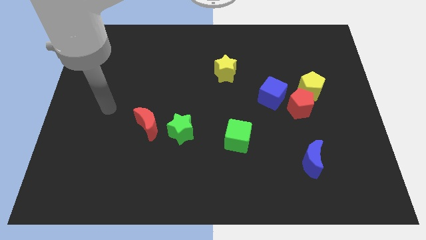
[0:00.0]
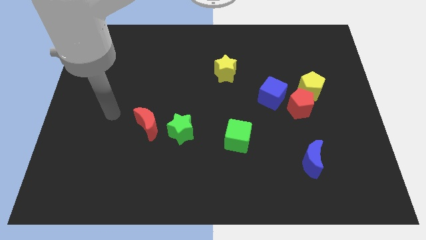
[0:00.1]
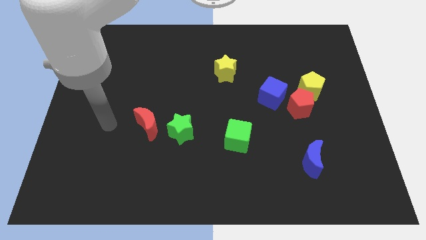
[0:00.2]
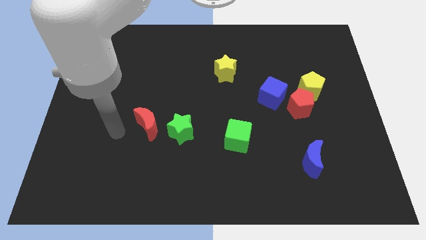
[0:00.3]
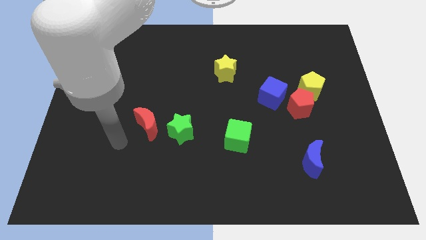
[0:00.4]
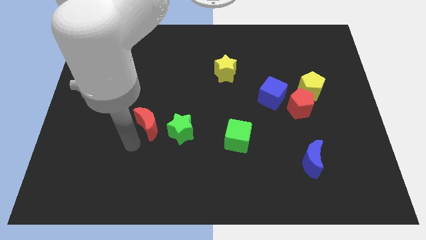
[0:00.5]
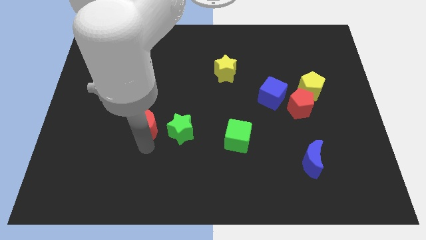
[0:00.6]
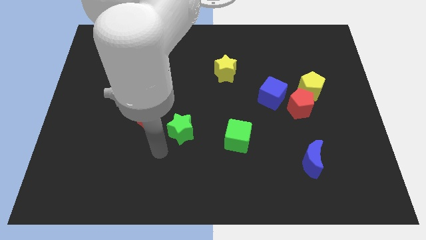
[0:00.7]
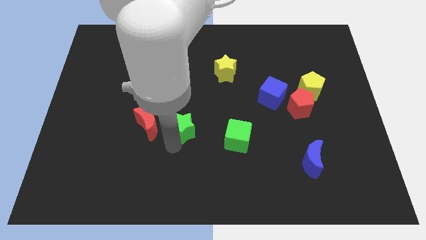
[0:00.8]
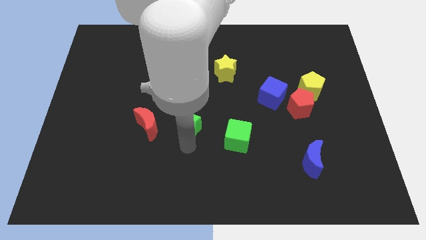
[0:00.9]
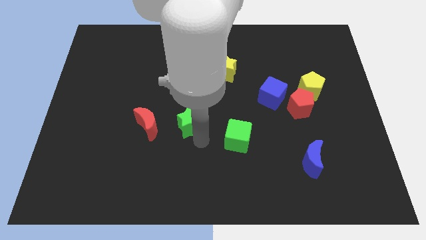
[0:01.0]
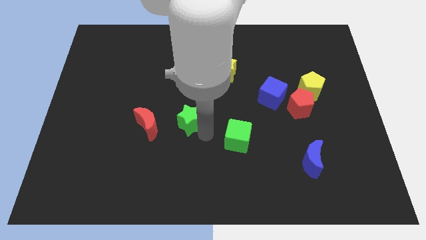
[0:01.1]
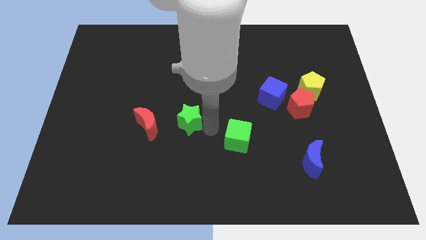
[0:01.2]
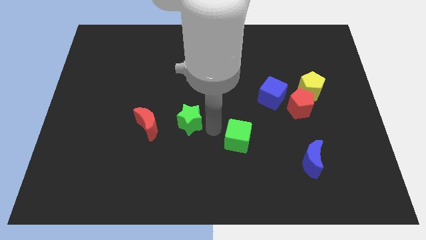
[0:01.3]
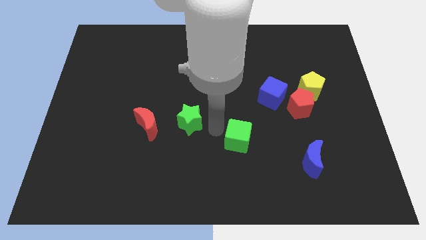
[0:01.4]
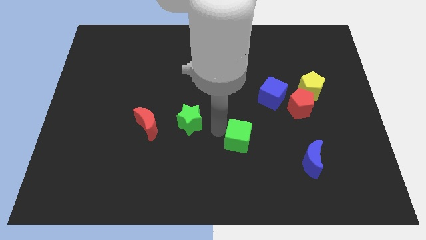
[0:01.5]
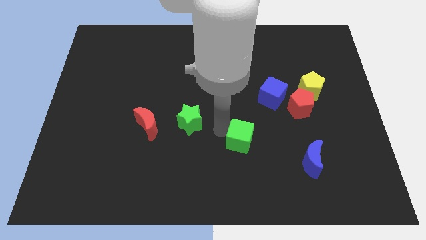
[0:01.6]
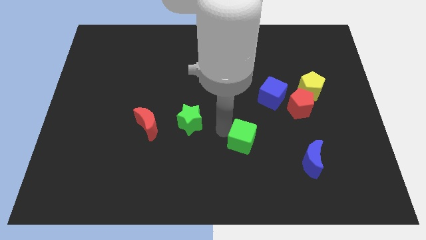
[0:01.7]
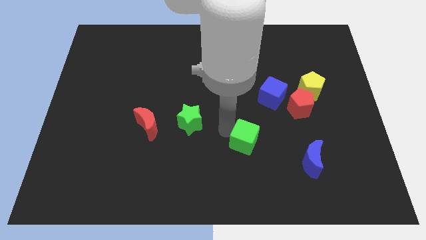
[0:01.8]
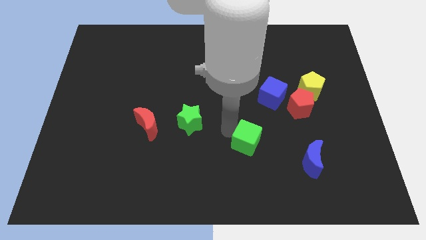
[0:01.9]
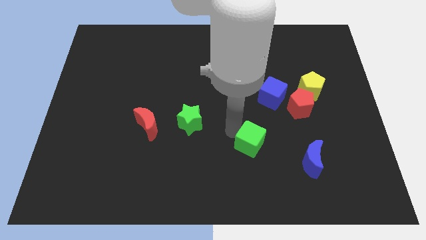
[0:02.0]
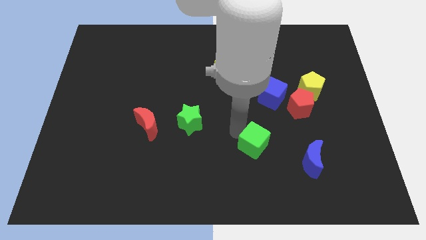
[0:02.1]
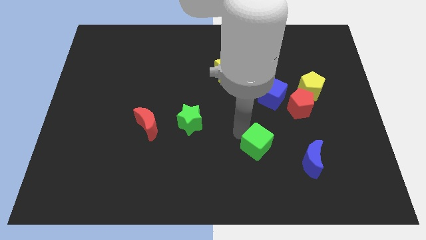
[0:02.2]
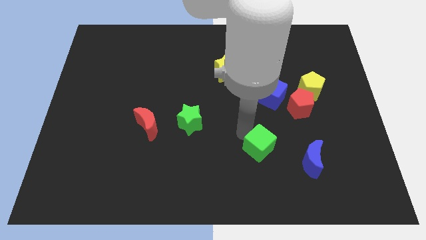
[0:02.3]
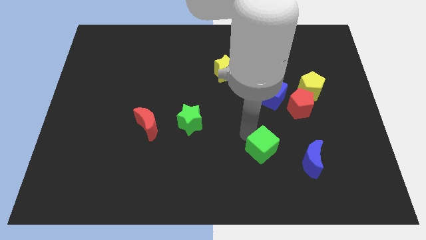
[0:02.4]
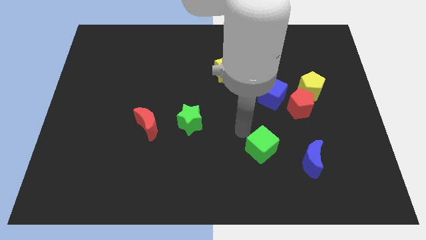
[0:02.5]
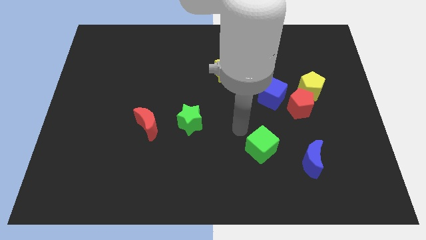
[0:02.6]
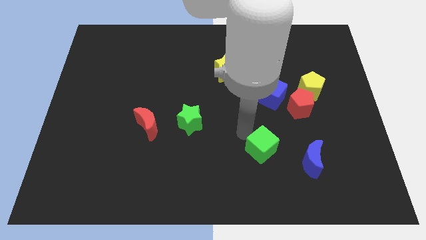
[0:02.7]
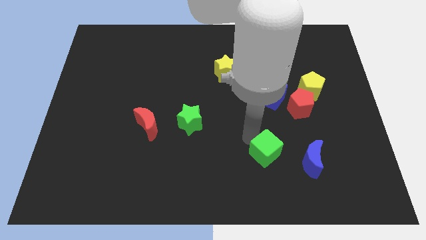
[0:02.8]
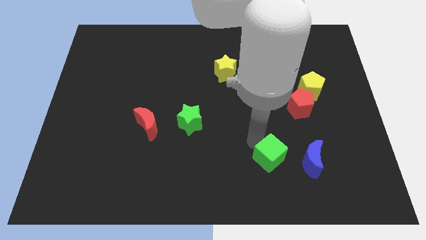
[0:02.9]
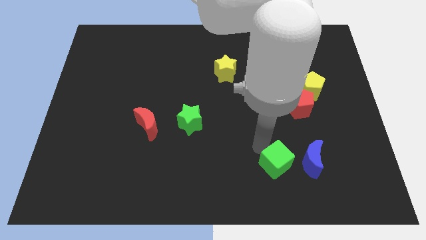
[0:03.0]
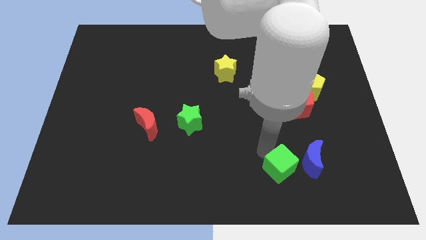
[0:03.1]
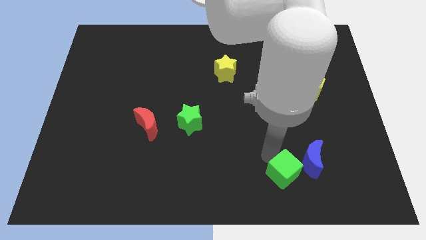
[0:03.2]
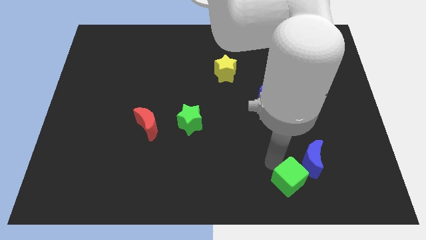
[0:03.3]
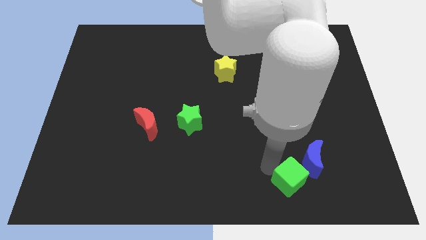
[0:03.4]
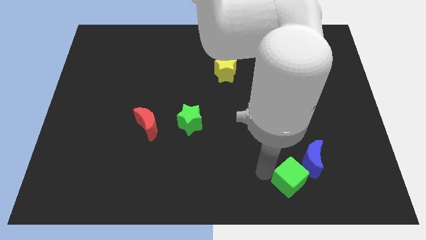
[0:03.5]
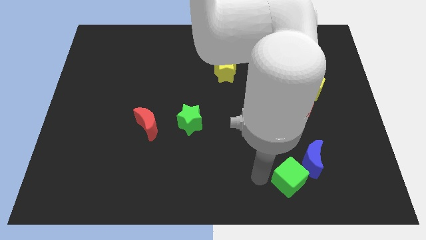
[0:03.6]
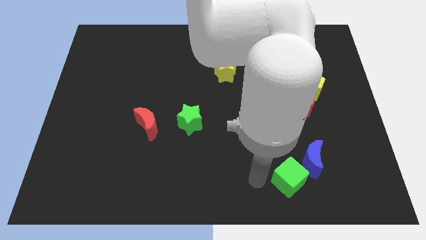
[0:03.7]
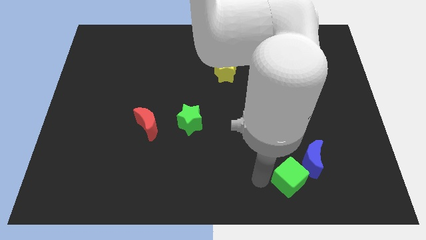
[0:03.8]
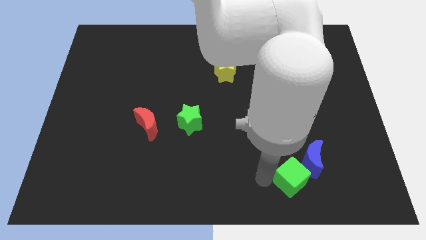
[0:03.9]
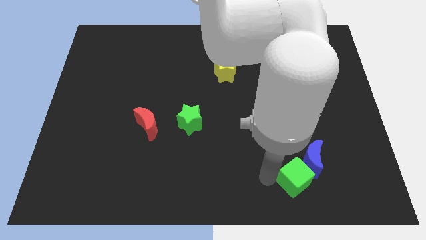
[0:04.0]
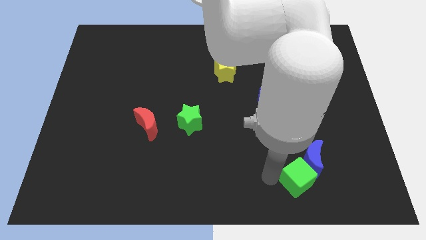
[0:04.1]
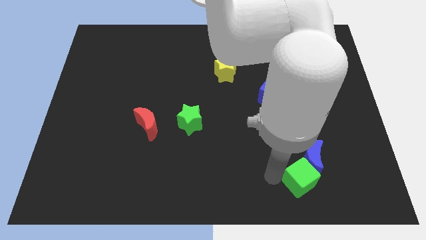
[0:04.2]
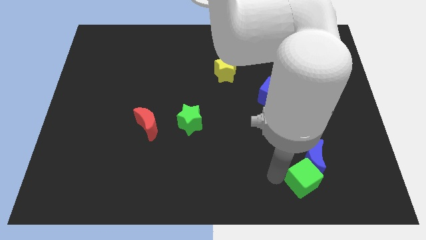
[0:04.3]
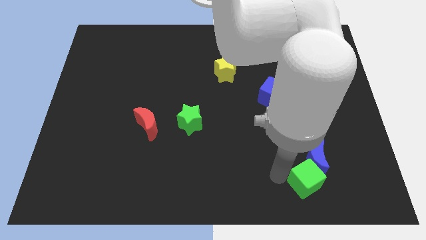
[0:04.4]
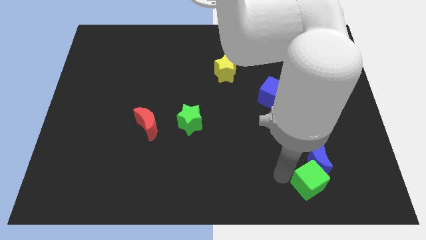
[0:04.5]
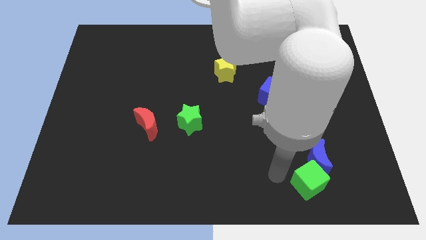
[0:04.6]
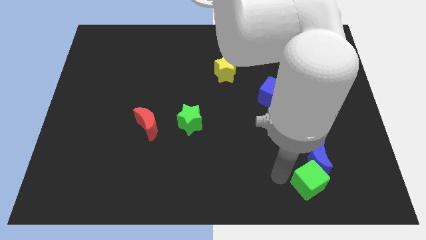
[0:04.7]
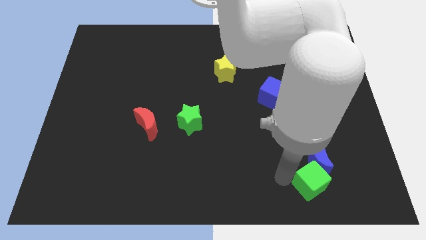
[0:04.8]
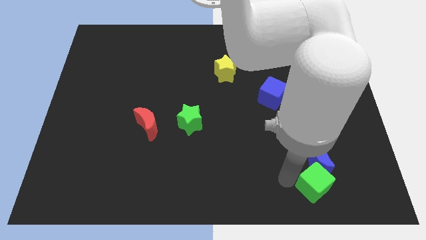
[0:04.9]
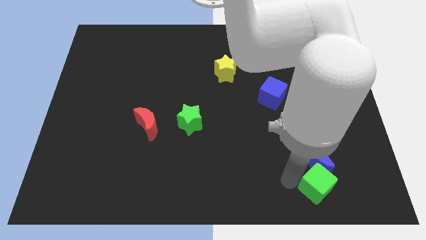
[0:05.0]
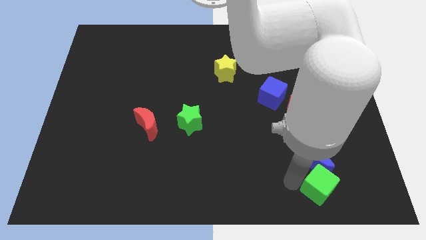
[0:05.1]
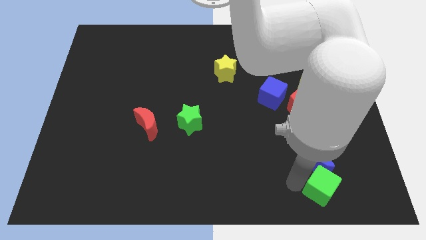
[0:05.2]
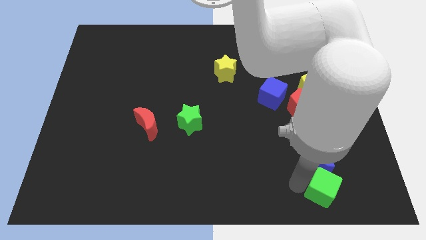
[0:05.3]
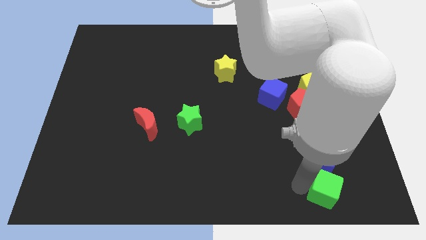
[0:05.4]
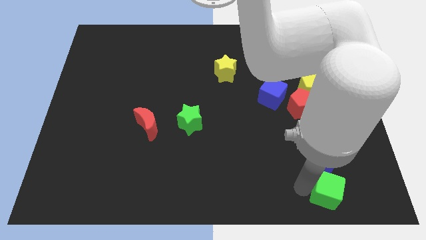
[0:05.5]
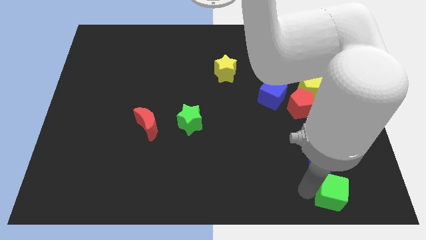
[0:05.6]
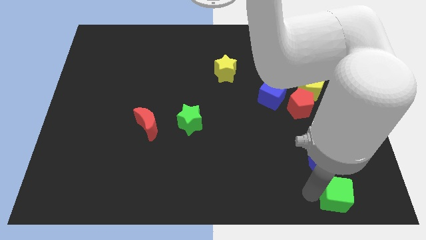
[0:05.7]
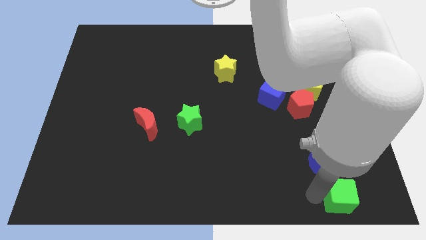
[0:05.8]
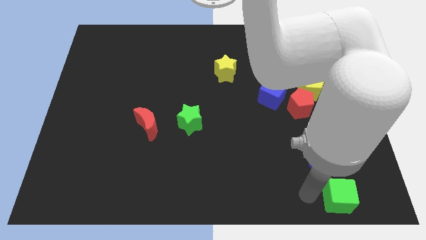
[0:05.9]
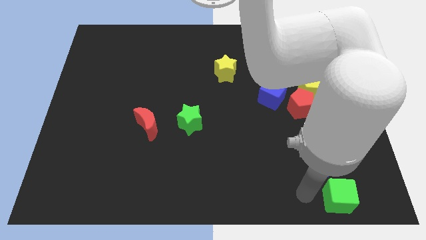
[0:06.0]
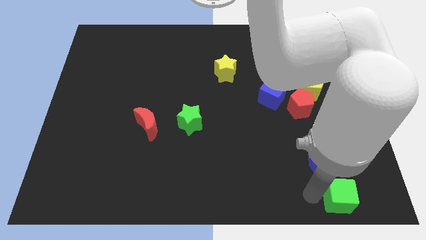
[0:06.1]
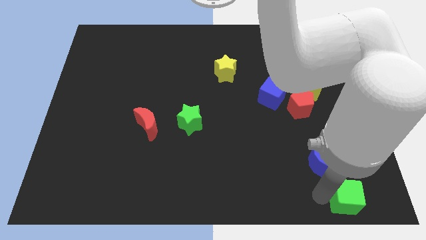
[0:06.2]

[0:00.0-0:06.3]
push the green cube to the bottom right

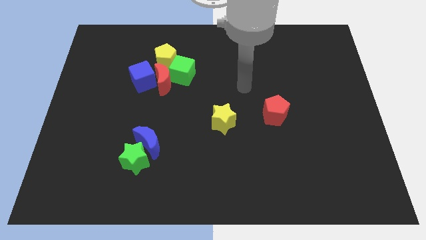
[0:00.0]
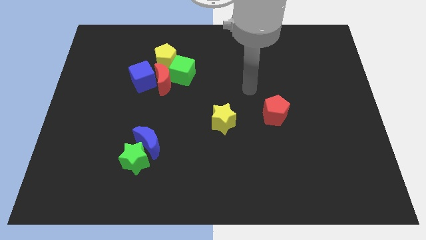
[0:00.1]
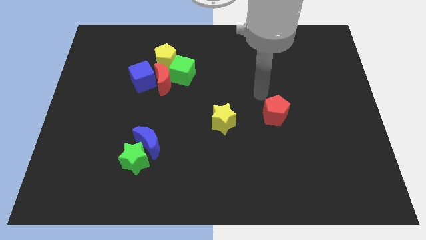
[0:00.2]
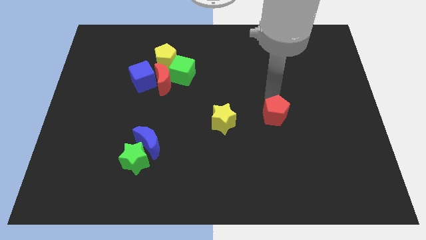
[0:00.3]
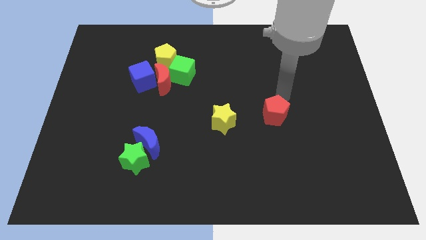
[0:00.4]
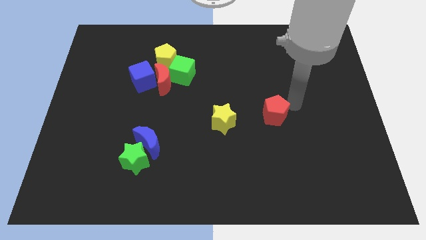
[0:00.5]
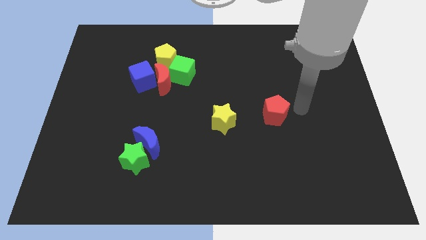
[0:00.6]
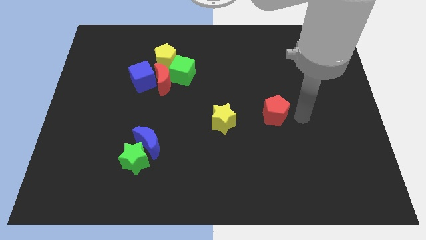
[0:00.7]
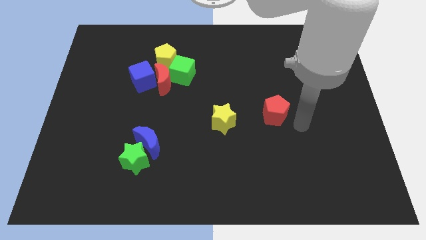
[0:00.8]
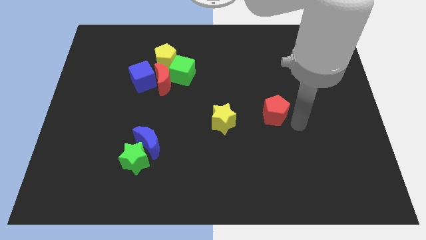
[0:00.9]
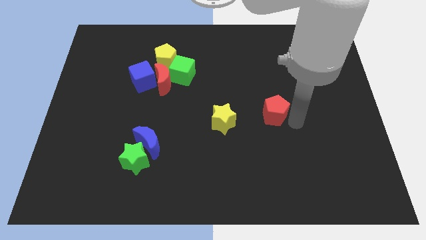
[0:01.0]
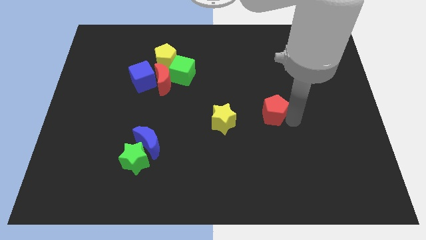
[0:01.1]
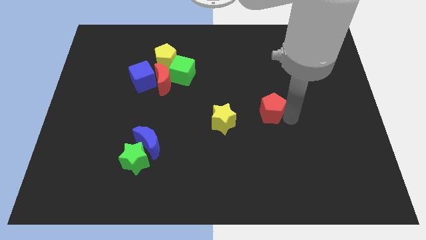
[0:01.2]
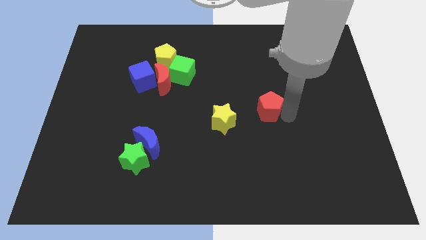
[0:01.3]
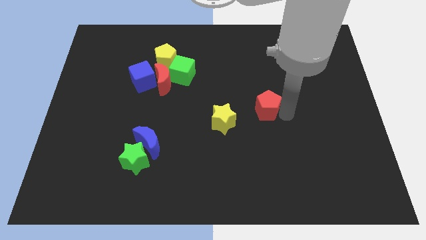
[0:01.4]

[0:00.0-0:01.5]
slide the red pentagon to the center of the board
